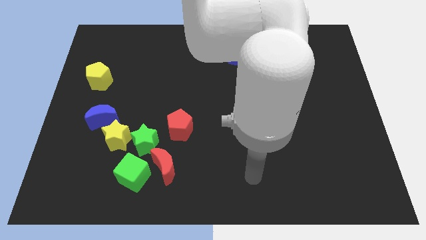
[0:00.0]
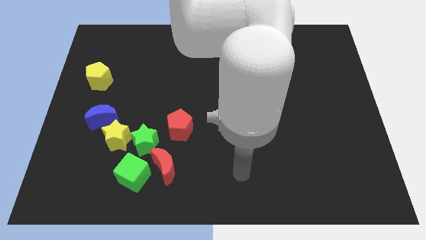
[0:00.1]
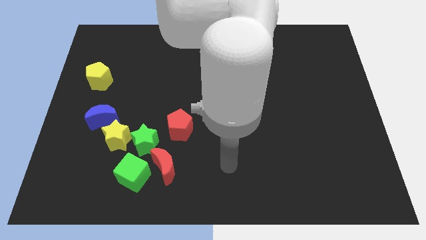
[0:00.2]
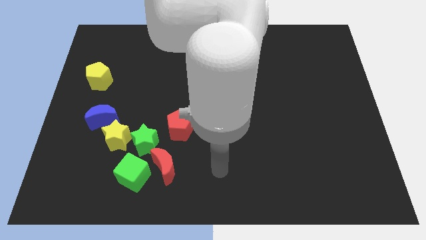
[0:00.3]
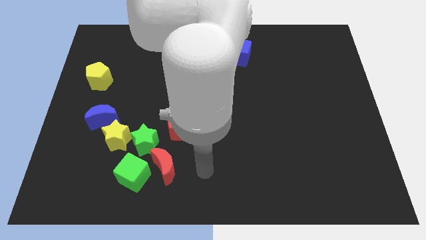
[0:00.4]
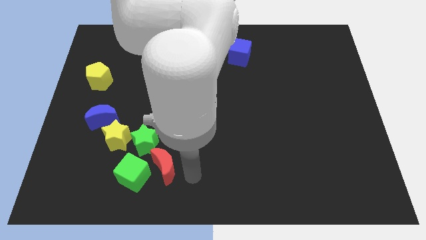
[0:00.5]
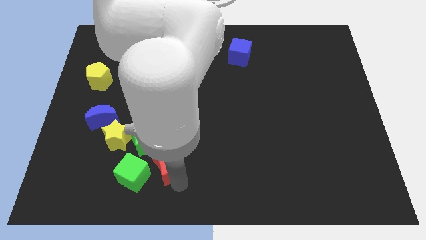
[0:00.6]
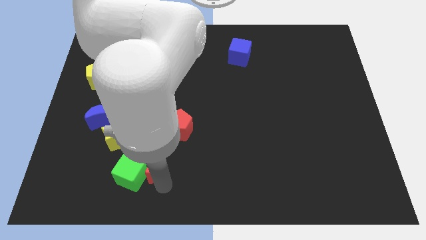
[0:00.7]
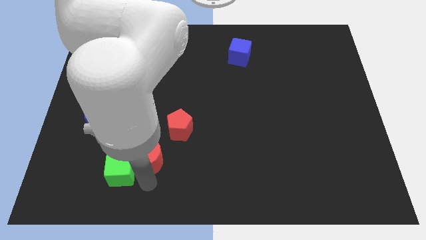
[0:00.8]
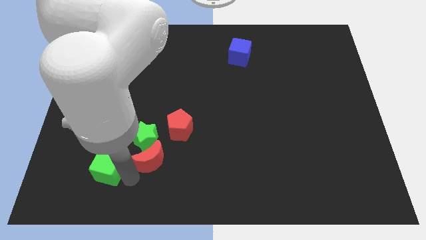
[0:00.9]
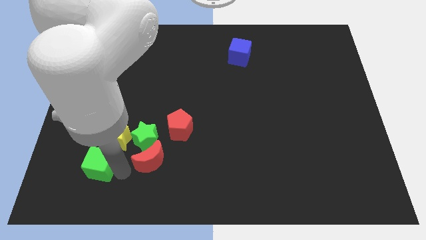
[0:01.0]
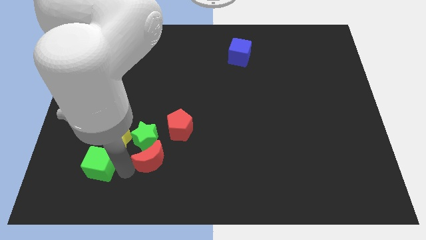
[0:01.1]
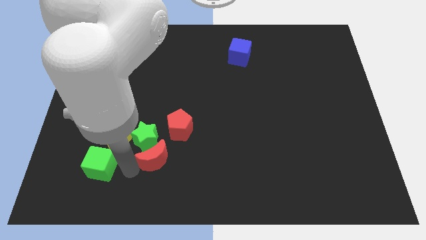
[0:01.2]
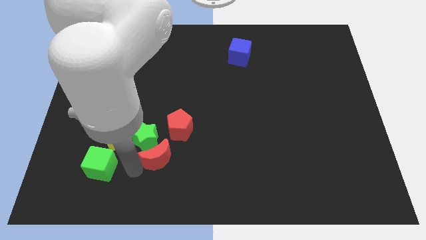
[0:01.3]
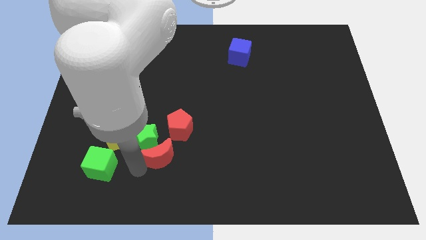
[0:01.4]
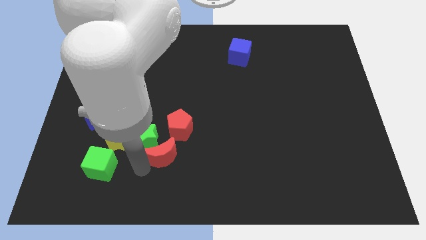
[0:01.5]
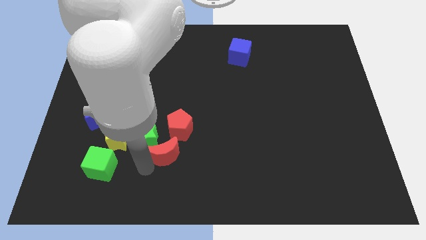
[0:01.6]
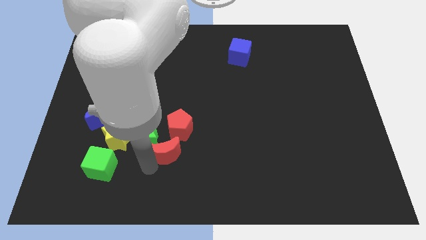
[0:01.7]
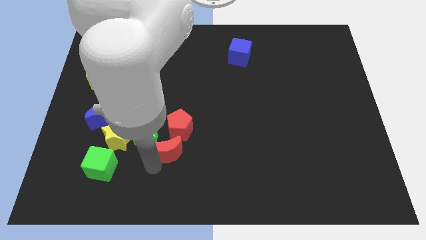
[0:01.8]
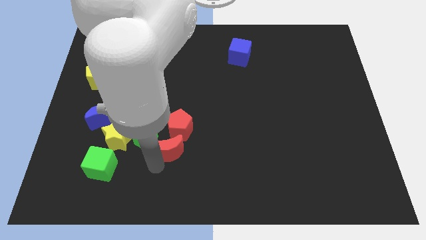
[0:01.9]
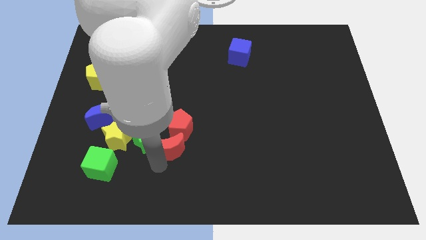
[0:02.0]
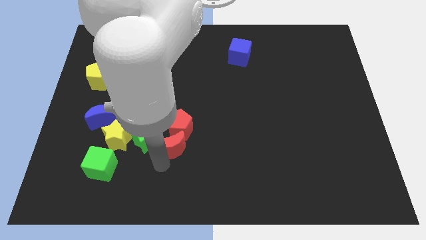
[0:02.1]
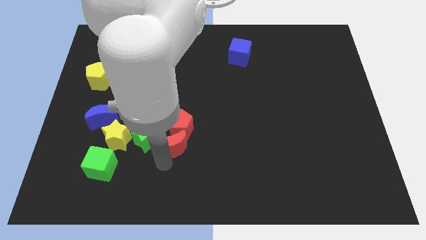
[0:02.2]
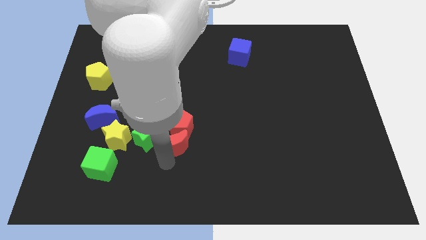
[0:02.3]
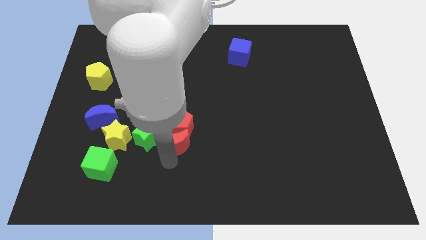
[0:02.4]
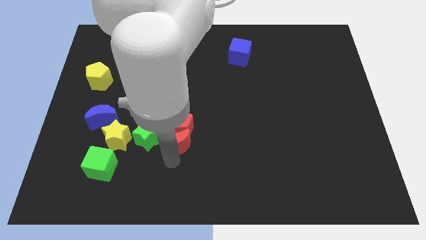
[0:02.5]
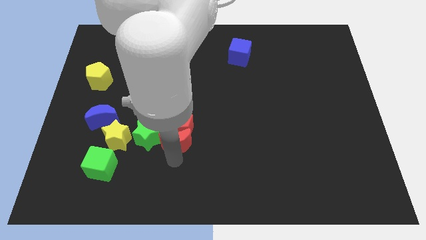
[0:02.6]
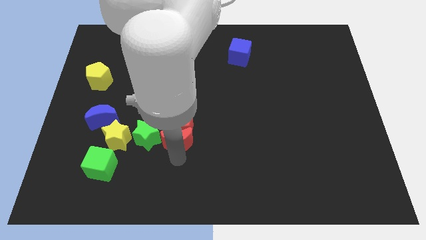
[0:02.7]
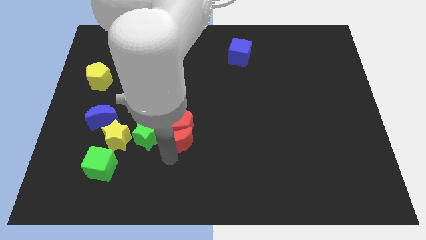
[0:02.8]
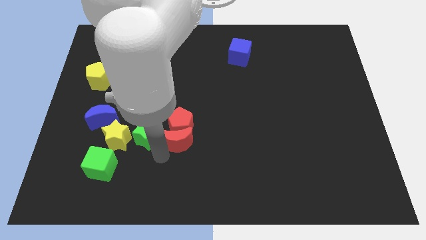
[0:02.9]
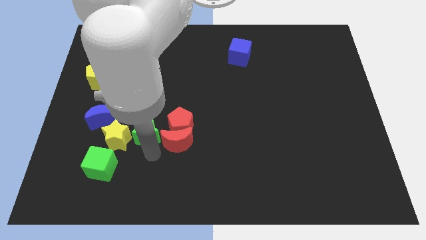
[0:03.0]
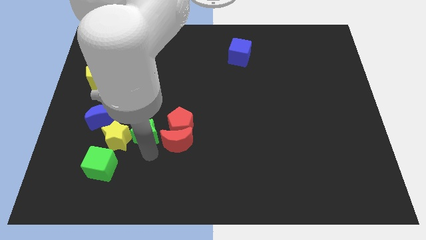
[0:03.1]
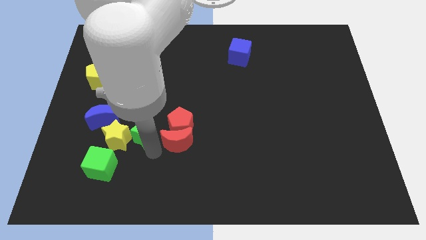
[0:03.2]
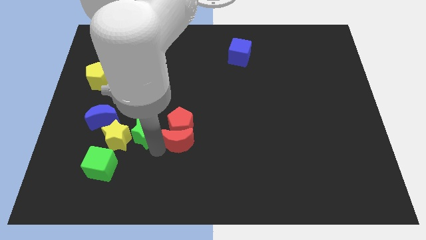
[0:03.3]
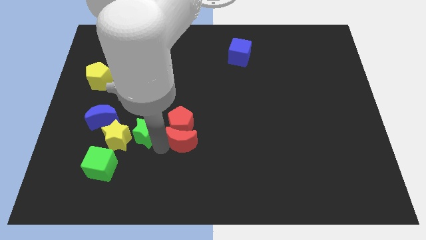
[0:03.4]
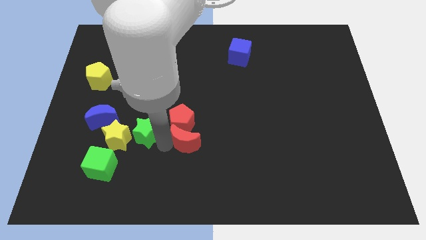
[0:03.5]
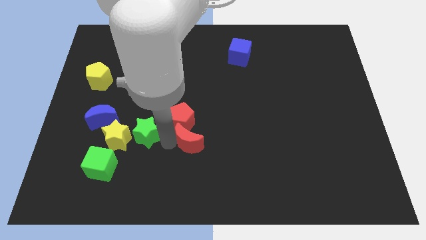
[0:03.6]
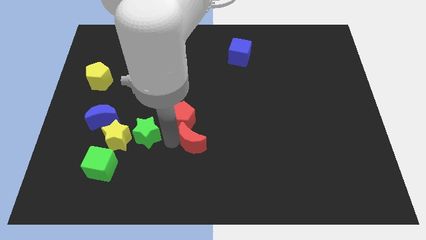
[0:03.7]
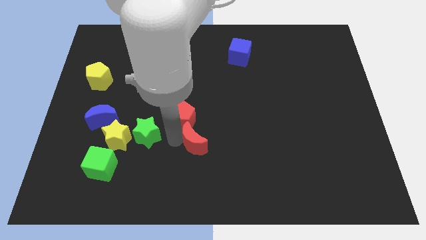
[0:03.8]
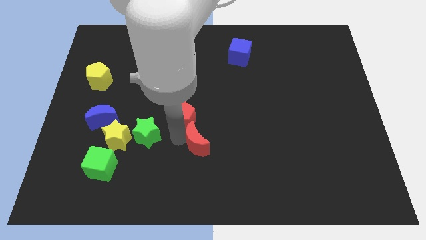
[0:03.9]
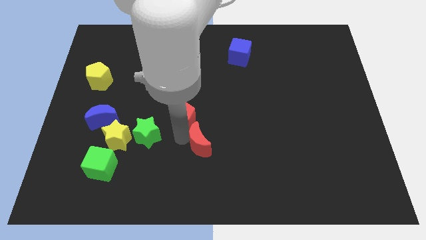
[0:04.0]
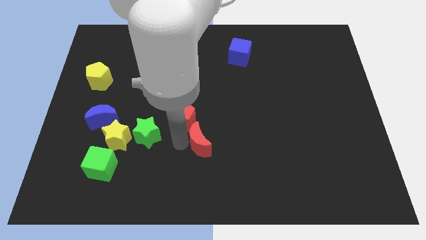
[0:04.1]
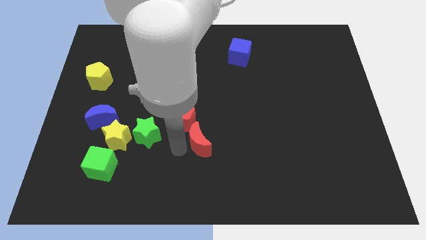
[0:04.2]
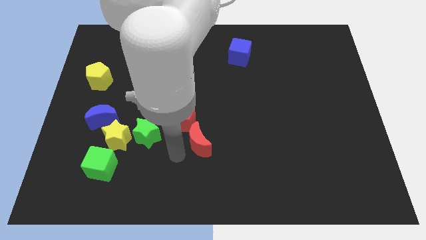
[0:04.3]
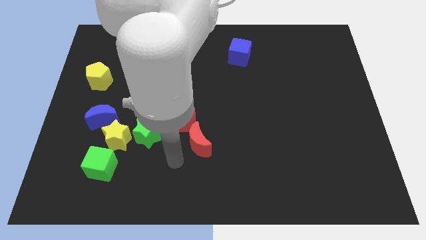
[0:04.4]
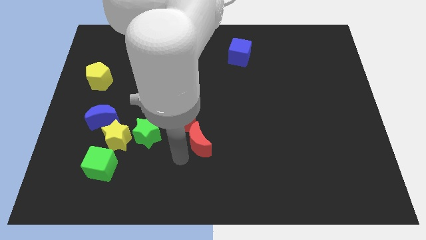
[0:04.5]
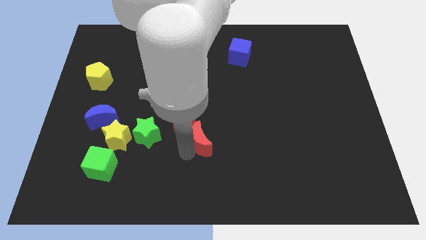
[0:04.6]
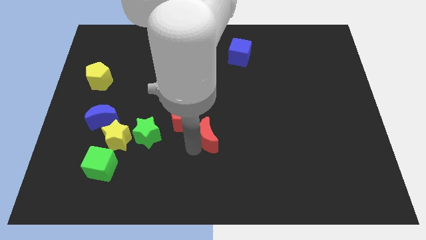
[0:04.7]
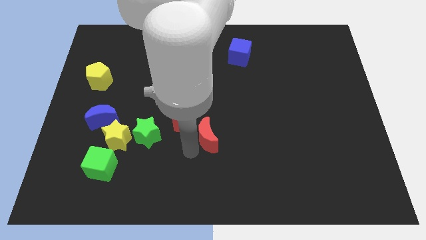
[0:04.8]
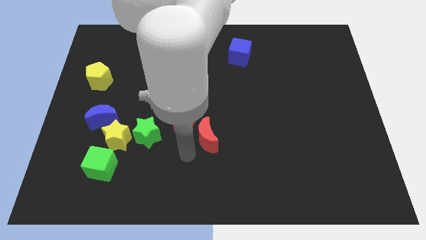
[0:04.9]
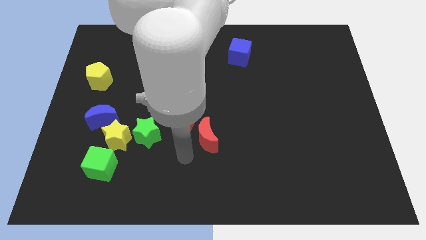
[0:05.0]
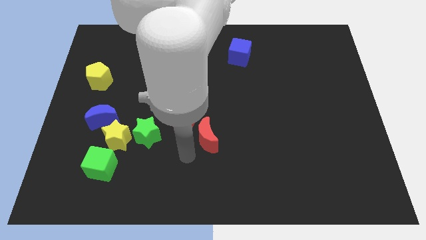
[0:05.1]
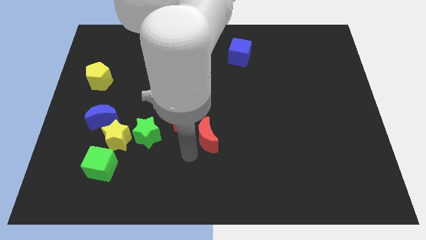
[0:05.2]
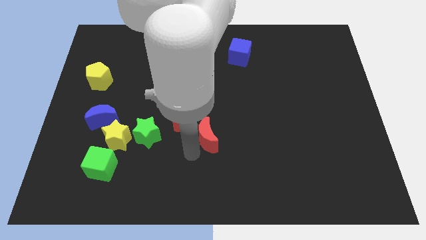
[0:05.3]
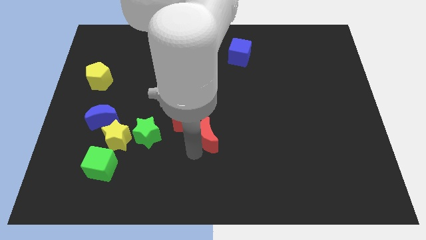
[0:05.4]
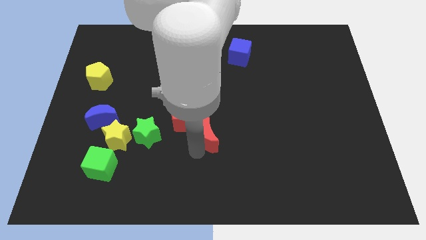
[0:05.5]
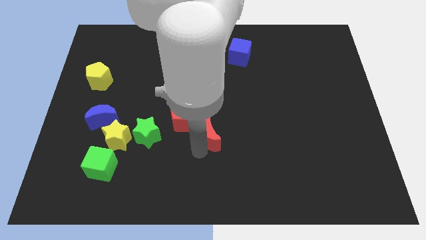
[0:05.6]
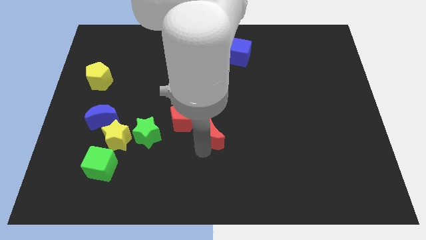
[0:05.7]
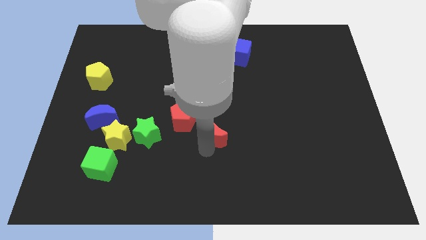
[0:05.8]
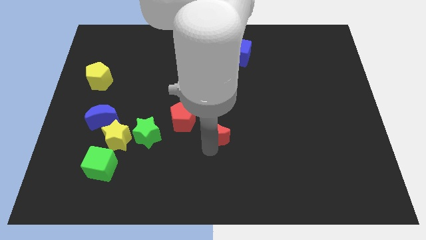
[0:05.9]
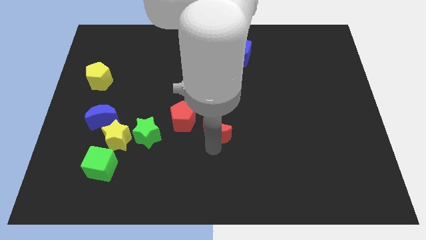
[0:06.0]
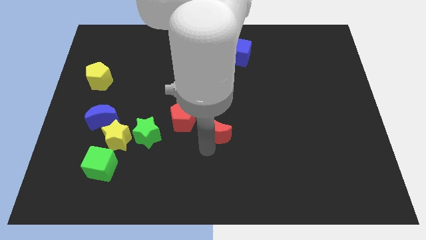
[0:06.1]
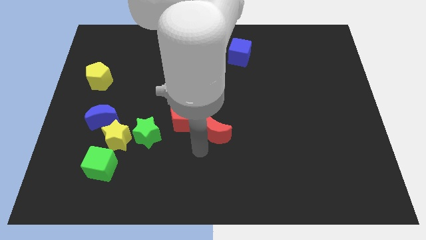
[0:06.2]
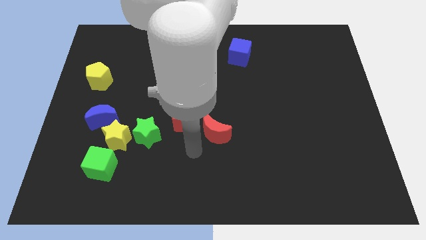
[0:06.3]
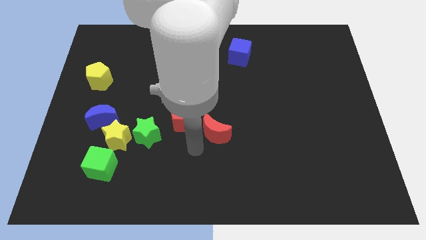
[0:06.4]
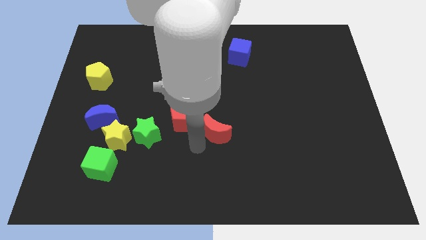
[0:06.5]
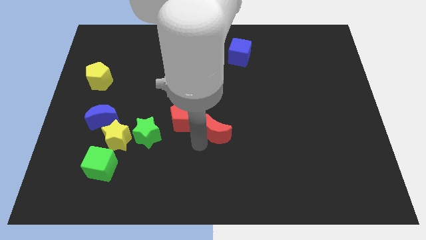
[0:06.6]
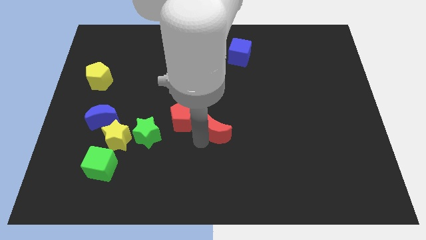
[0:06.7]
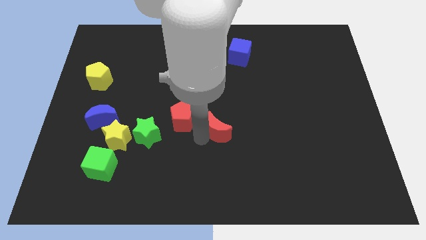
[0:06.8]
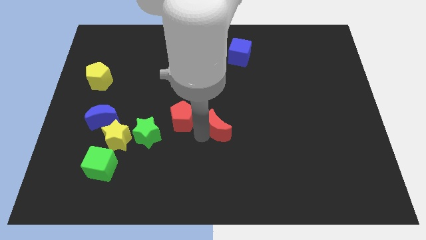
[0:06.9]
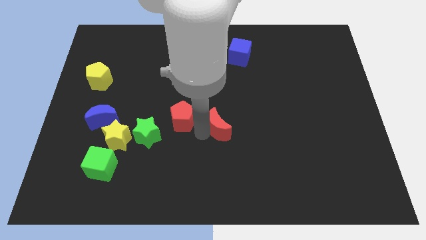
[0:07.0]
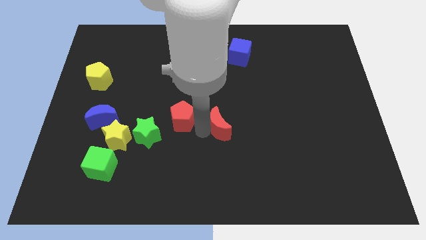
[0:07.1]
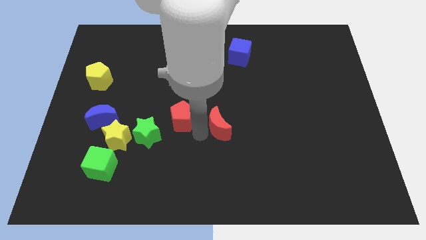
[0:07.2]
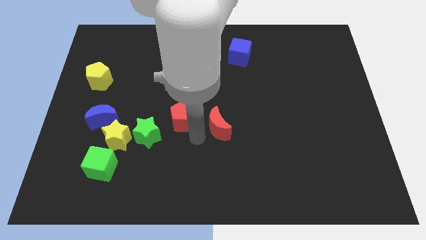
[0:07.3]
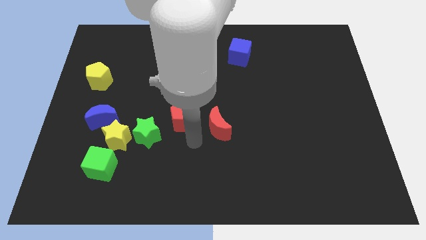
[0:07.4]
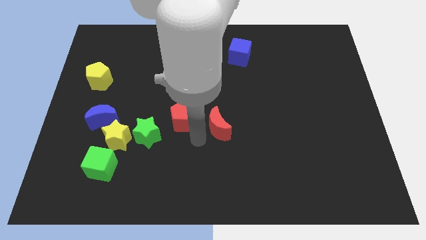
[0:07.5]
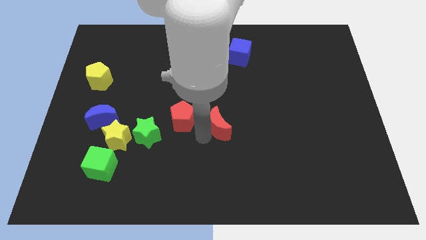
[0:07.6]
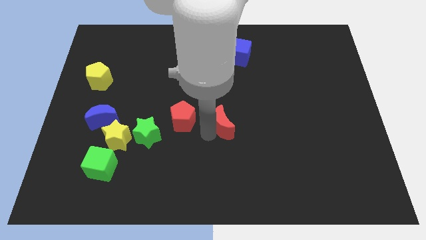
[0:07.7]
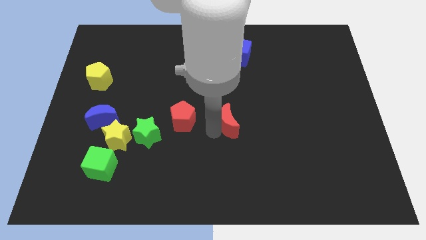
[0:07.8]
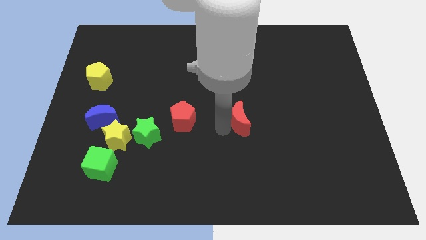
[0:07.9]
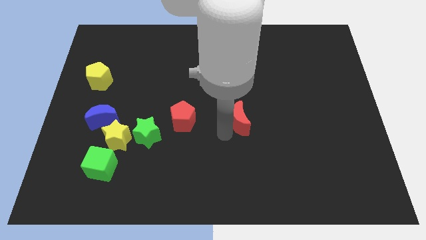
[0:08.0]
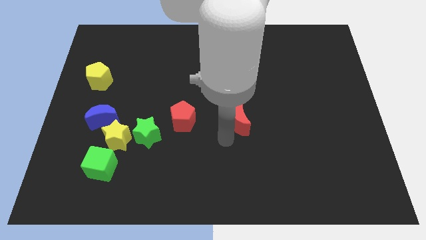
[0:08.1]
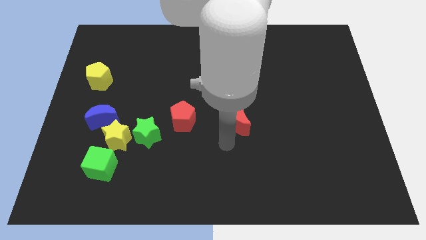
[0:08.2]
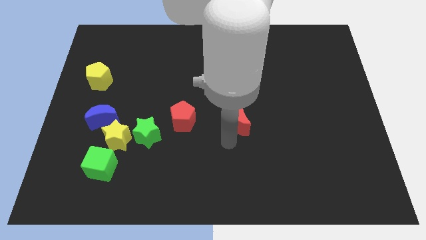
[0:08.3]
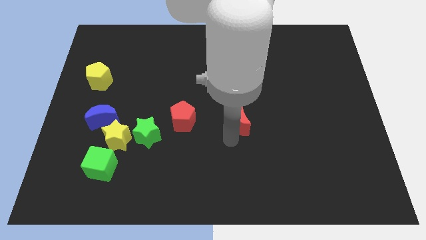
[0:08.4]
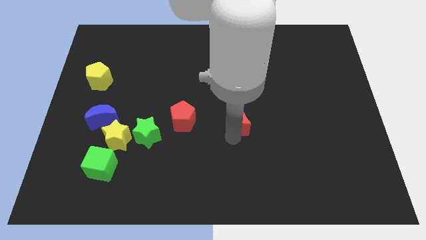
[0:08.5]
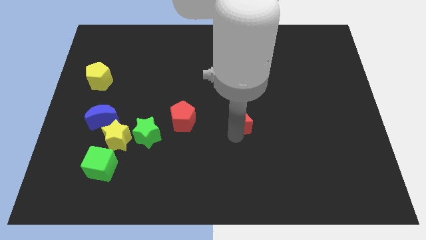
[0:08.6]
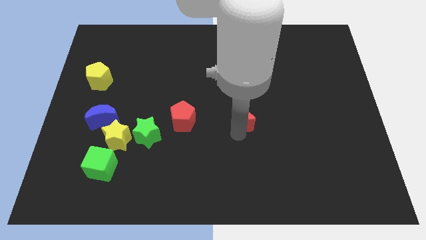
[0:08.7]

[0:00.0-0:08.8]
push the red moon up and right
